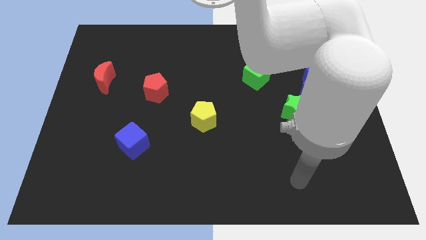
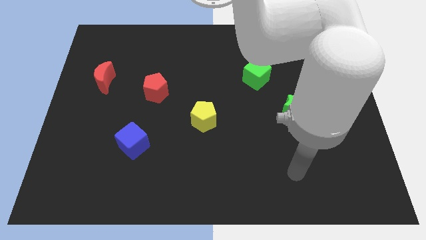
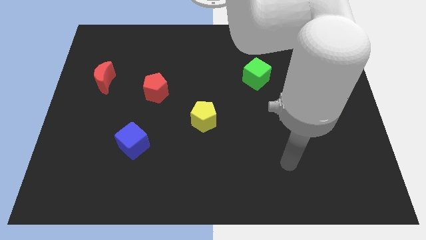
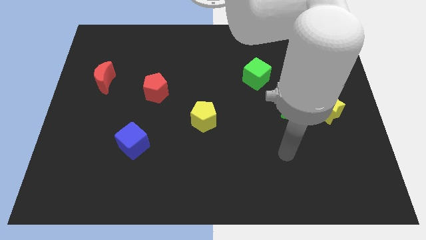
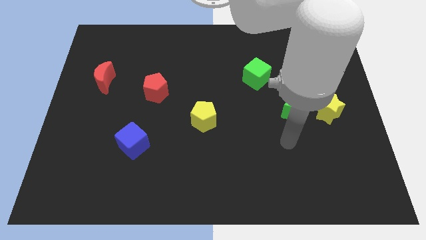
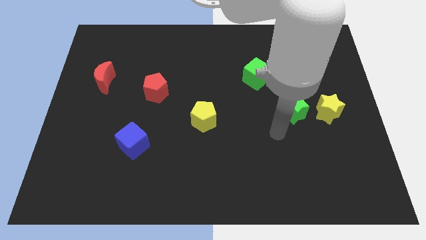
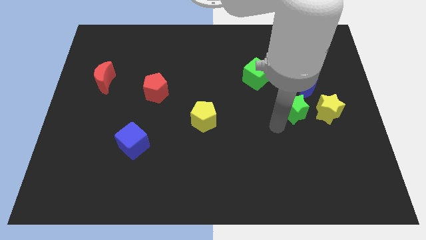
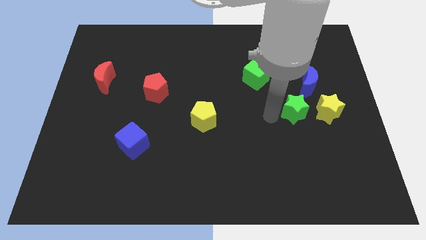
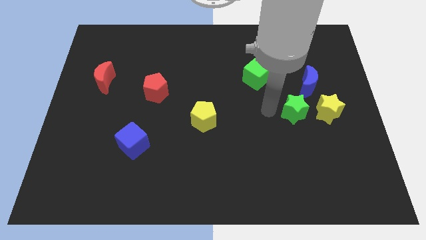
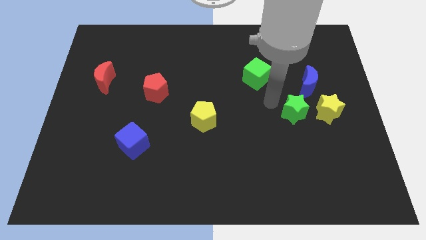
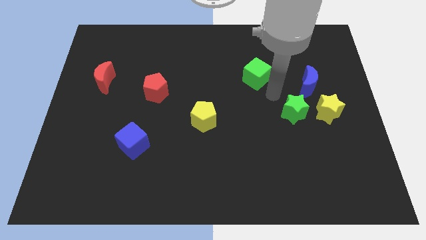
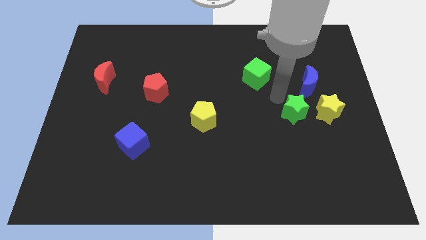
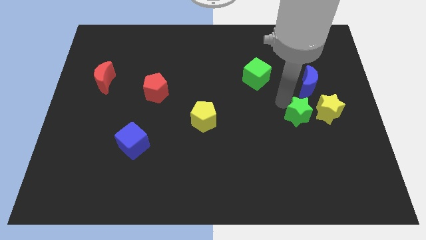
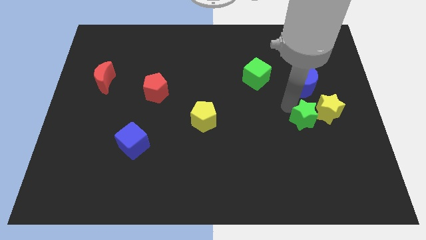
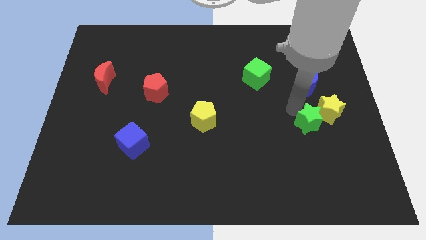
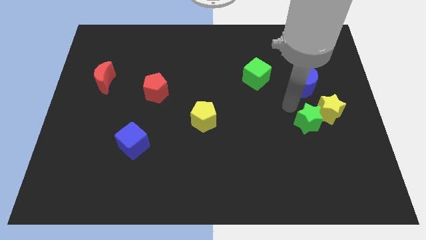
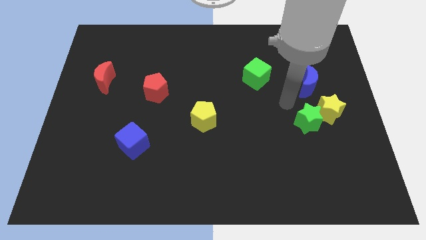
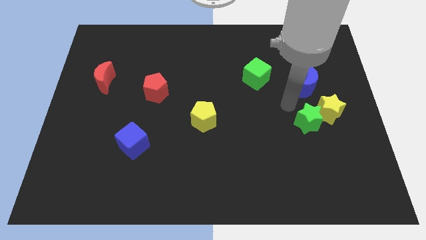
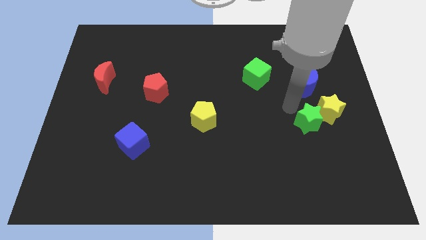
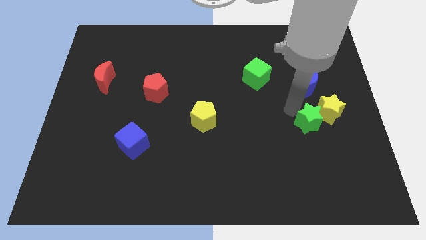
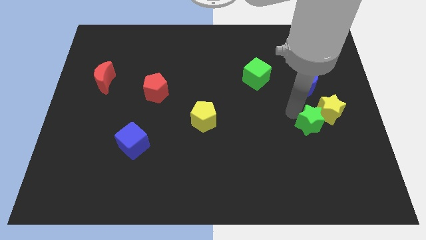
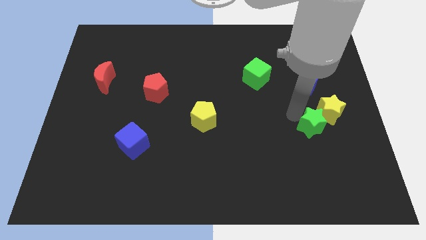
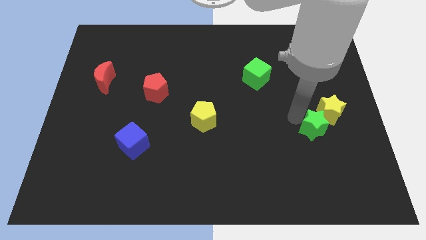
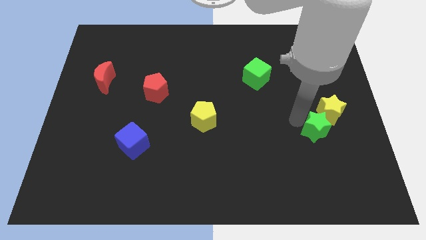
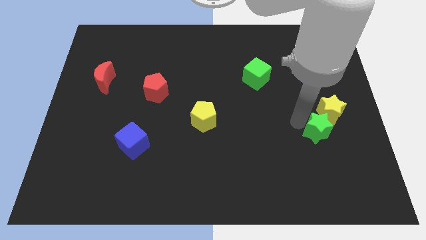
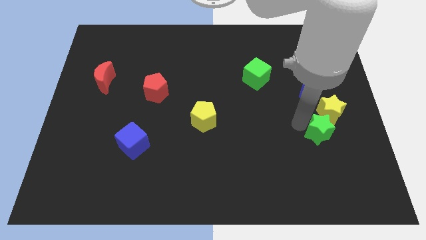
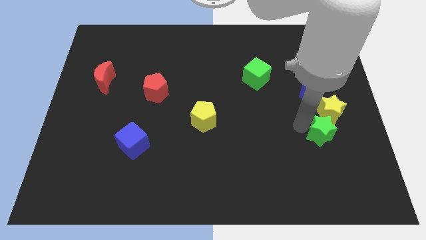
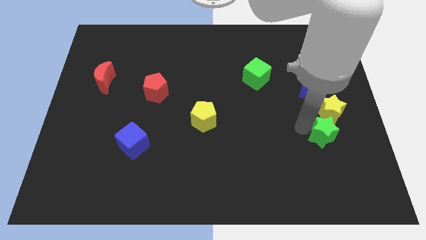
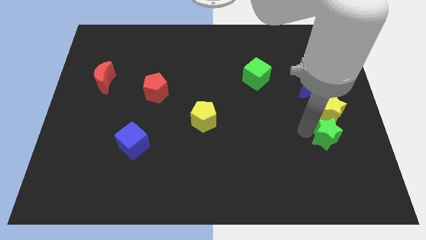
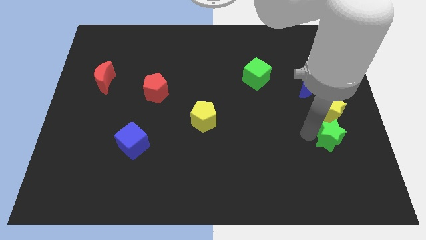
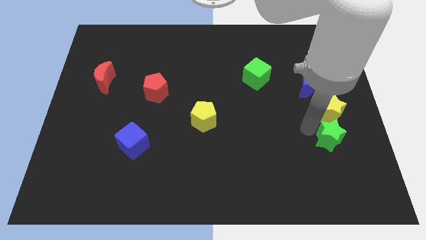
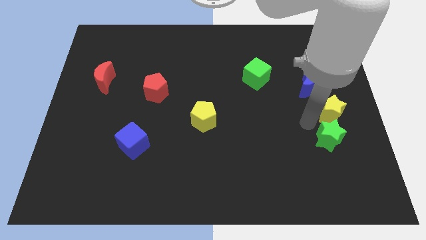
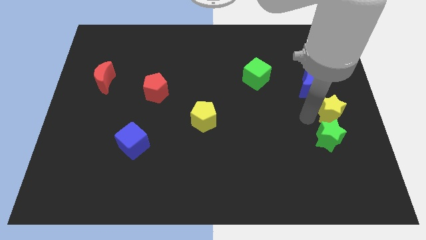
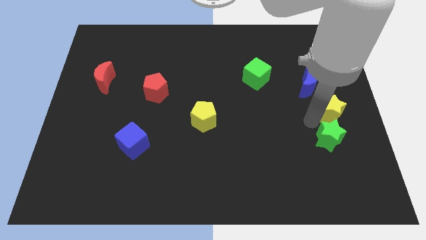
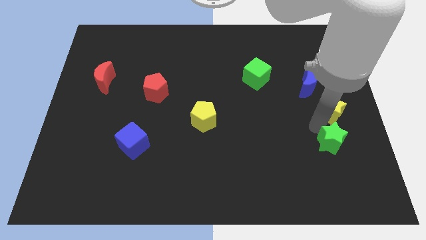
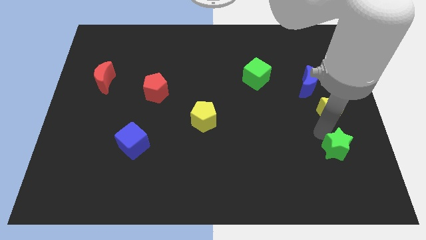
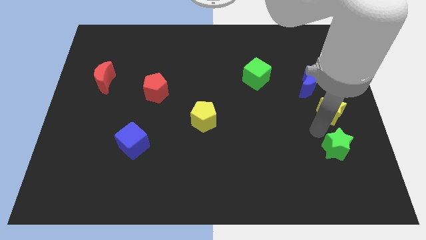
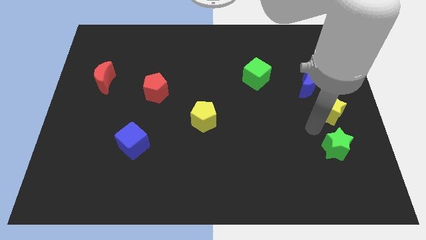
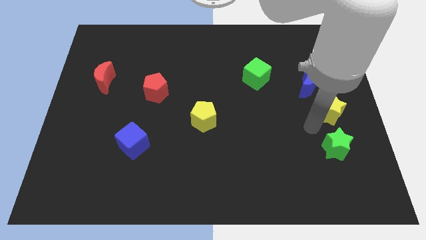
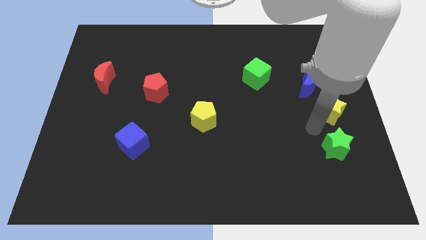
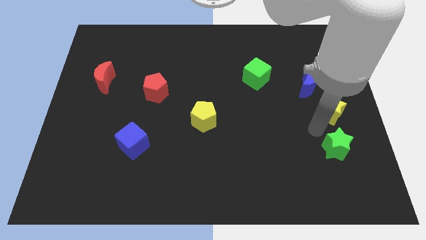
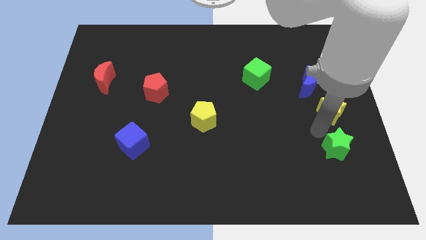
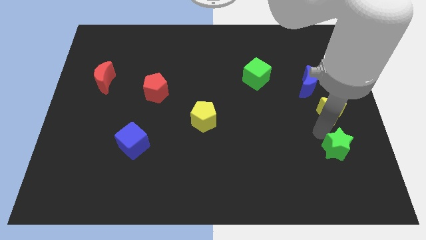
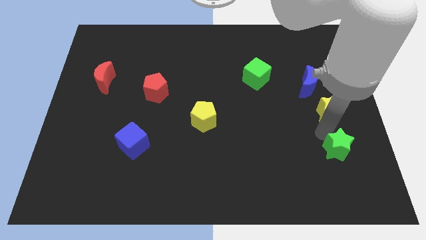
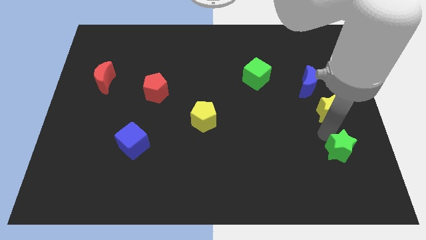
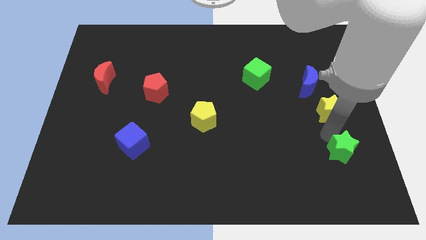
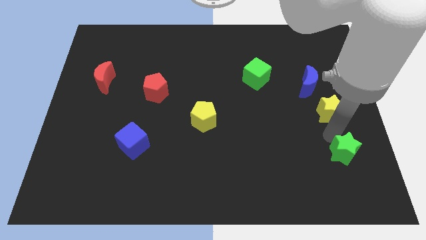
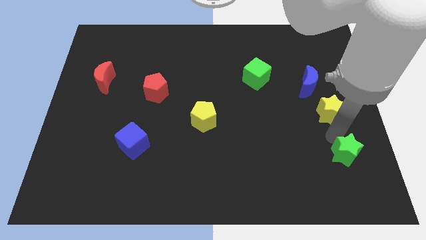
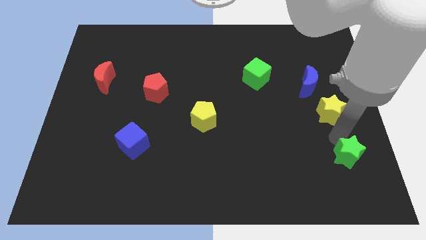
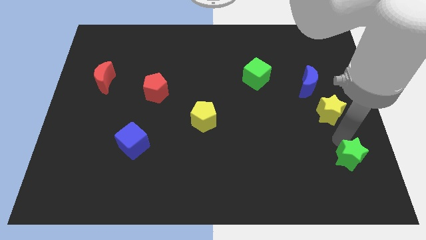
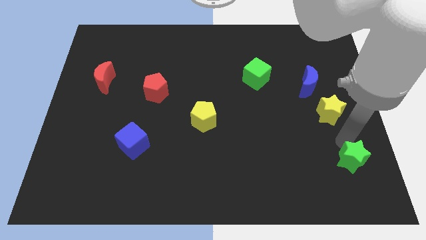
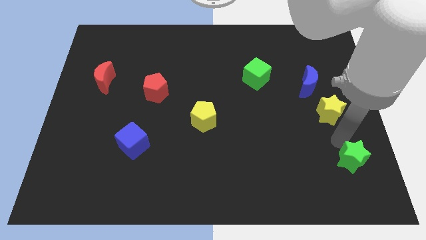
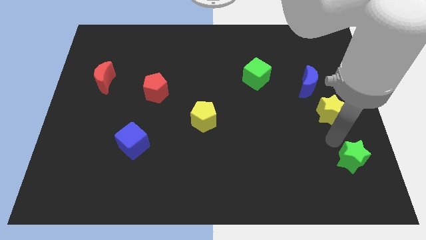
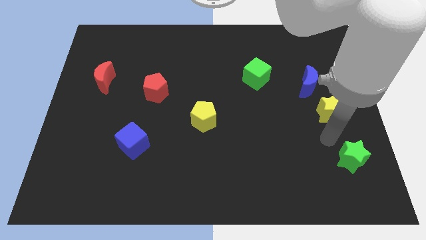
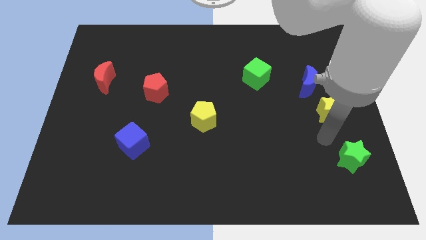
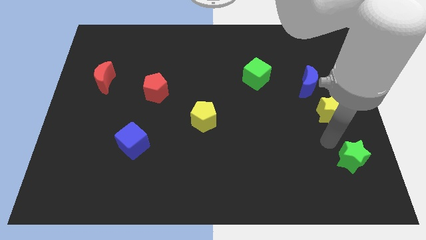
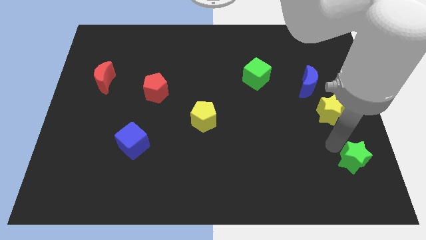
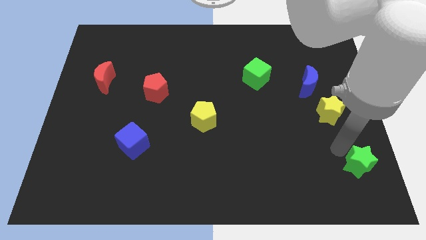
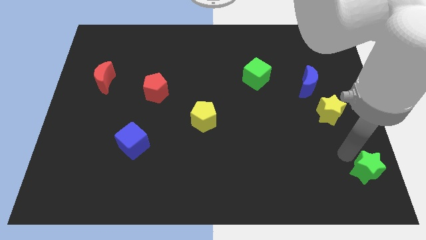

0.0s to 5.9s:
put the green star to the lower right corner
